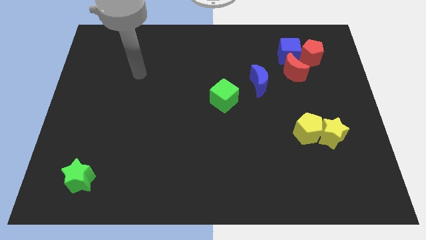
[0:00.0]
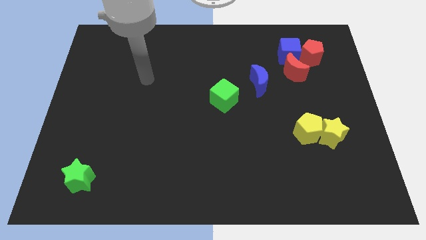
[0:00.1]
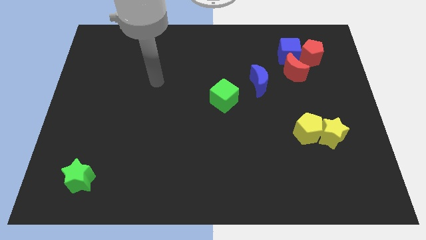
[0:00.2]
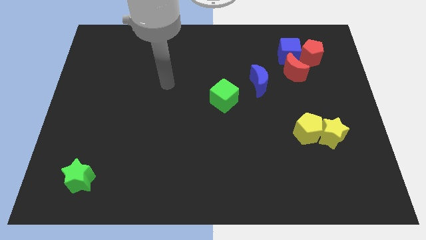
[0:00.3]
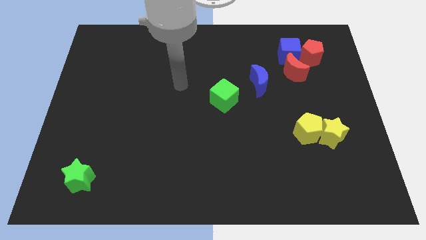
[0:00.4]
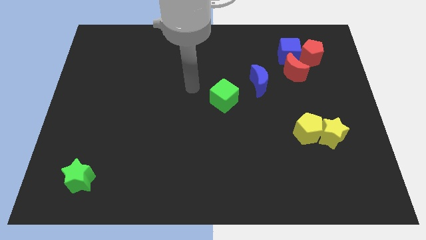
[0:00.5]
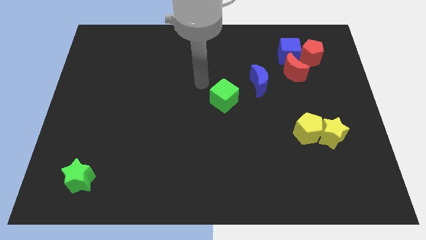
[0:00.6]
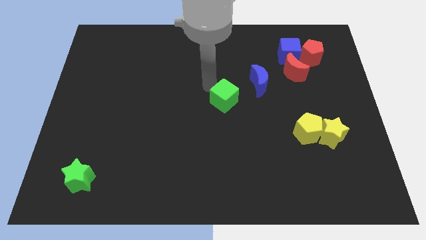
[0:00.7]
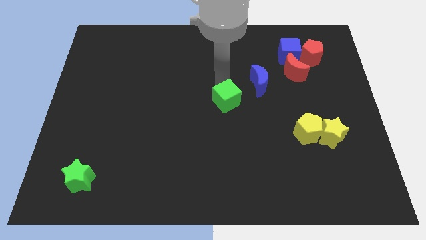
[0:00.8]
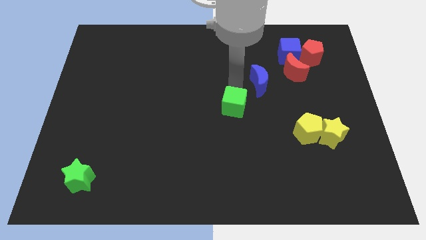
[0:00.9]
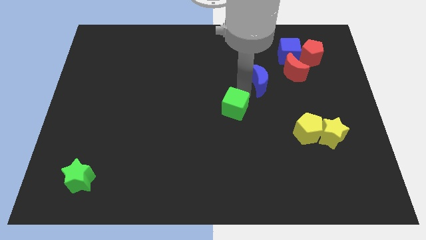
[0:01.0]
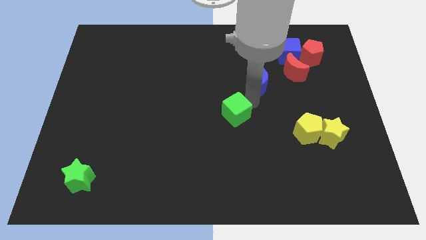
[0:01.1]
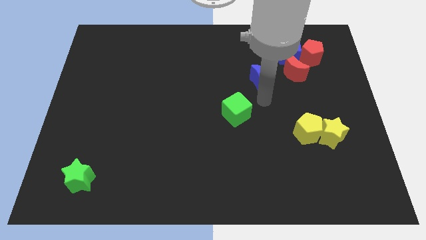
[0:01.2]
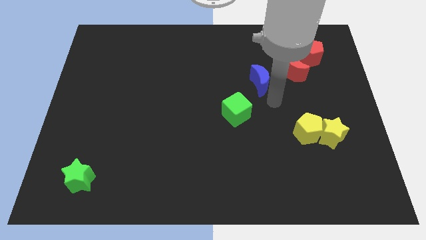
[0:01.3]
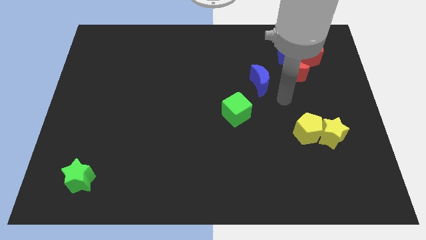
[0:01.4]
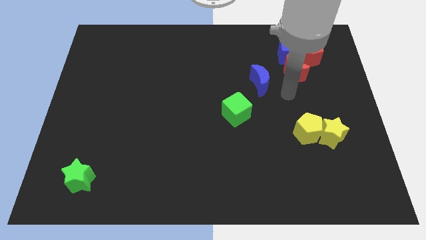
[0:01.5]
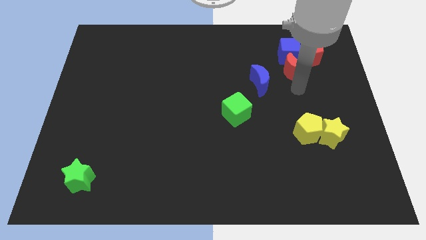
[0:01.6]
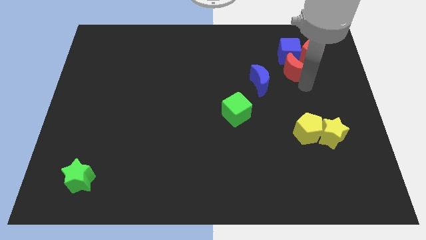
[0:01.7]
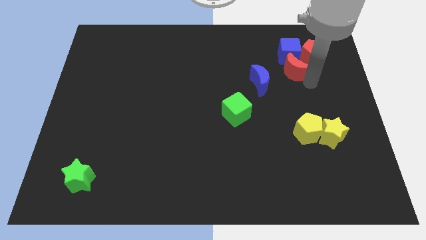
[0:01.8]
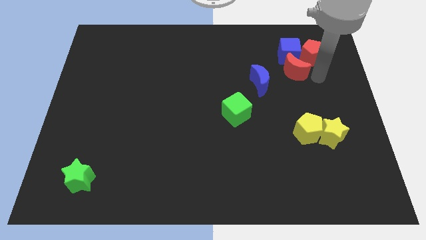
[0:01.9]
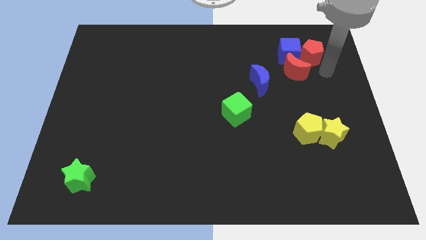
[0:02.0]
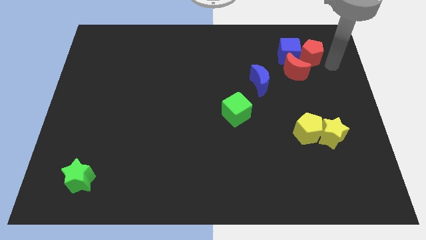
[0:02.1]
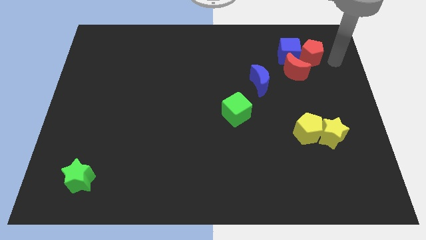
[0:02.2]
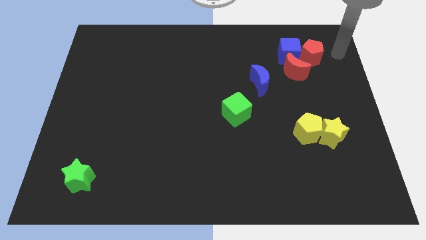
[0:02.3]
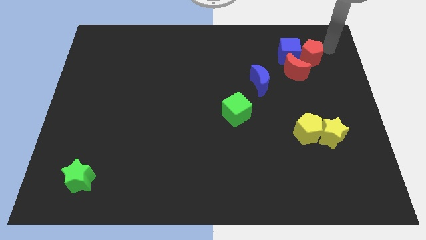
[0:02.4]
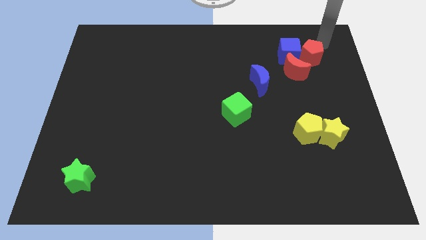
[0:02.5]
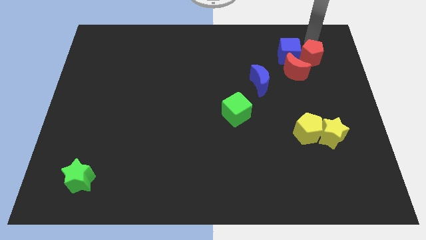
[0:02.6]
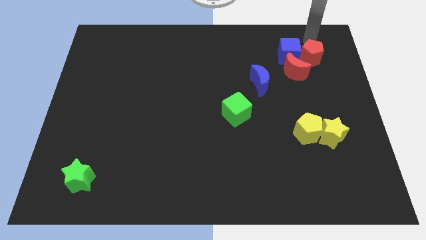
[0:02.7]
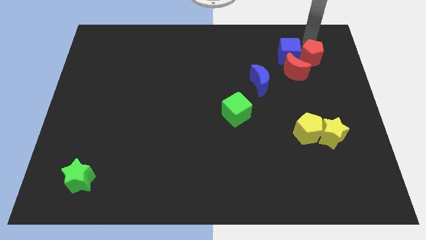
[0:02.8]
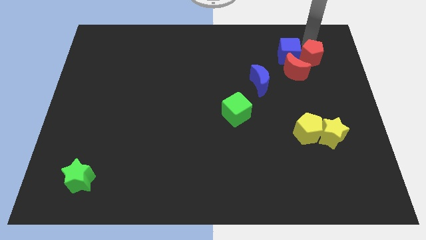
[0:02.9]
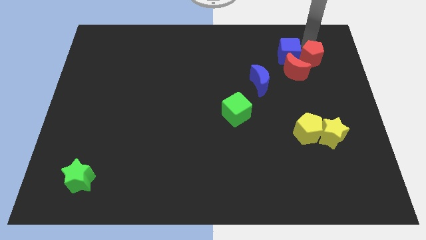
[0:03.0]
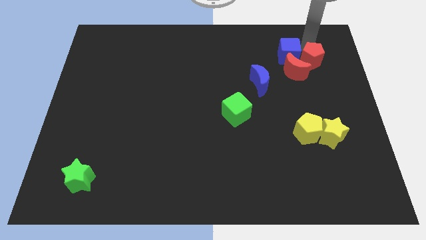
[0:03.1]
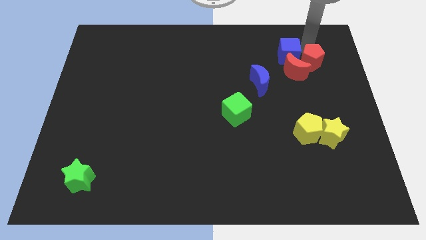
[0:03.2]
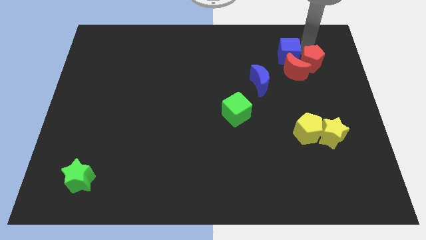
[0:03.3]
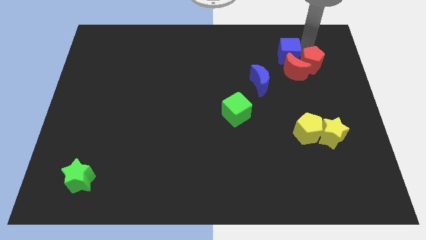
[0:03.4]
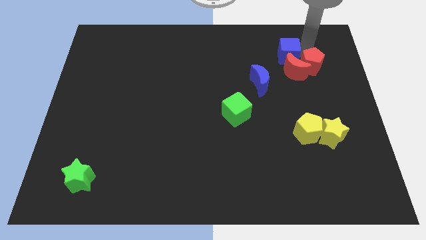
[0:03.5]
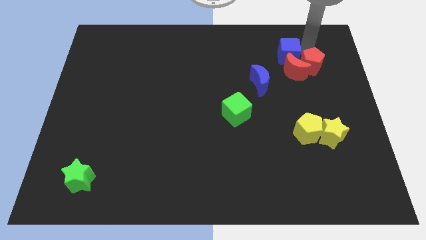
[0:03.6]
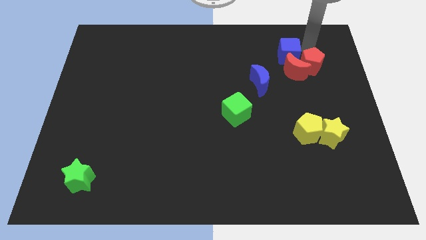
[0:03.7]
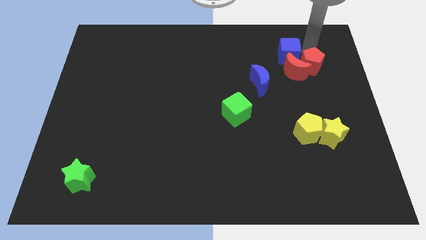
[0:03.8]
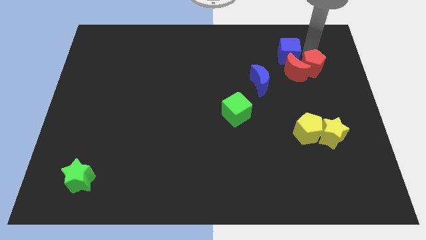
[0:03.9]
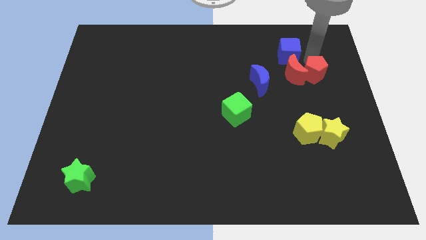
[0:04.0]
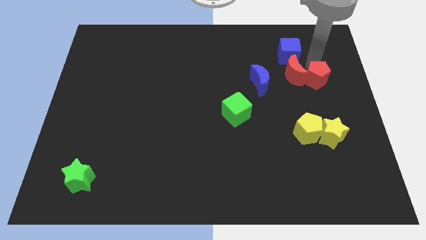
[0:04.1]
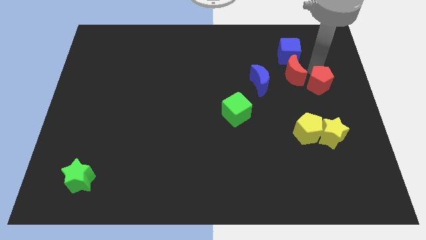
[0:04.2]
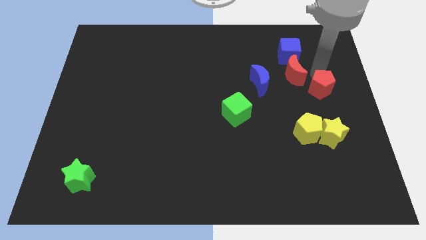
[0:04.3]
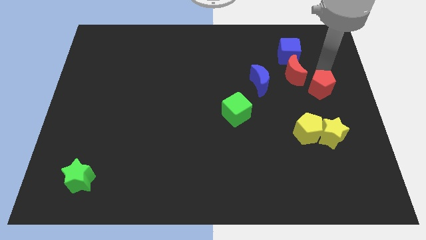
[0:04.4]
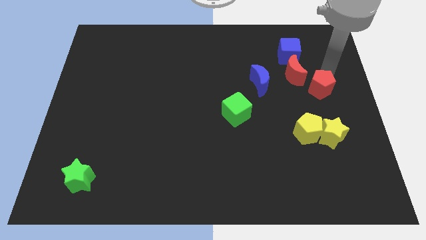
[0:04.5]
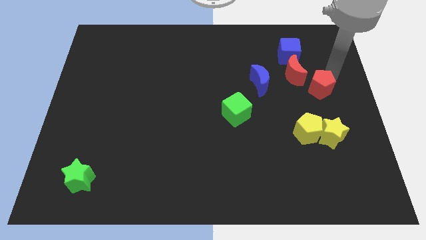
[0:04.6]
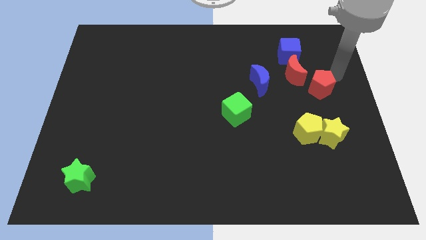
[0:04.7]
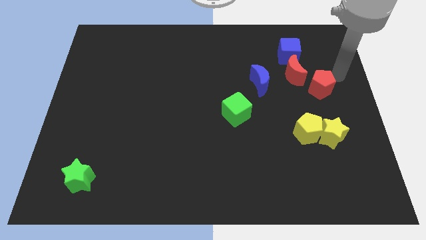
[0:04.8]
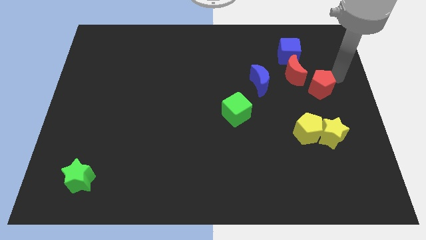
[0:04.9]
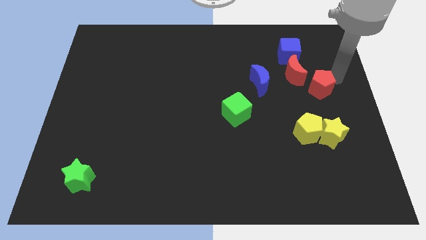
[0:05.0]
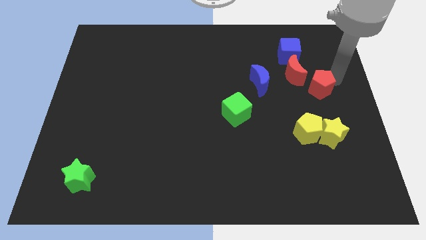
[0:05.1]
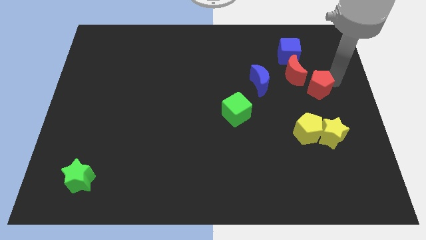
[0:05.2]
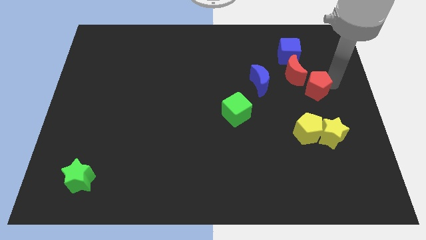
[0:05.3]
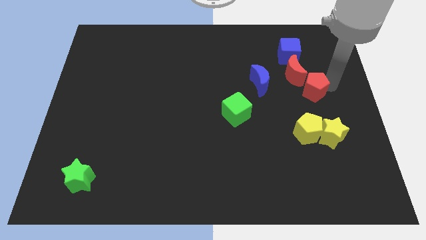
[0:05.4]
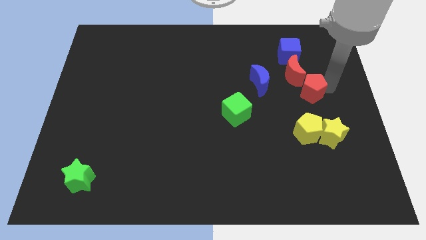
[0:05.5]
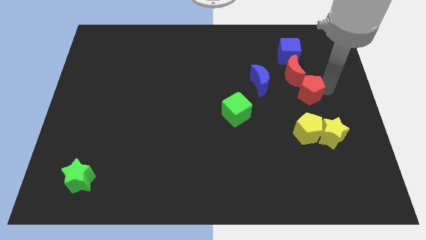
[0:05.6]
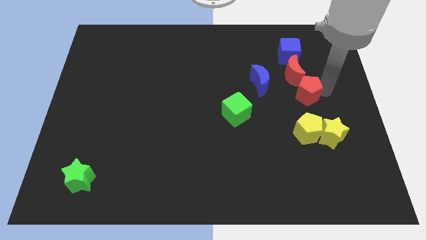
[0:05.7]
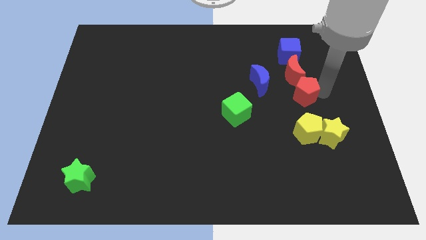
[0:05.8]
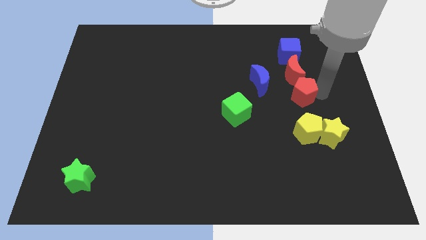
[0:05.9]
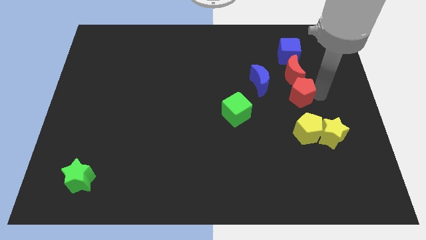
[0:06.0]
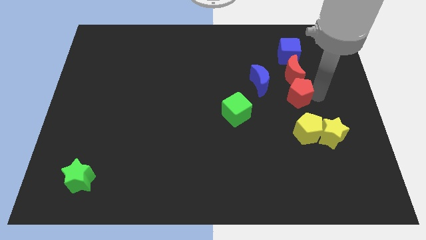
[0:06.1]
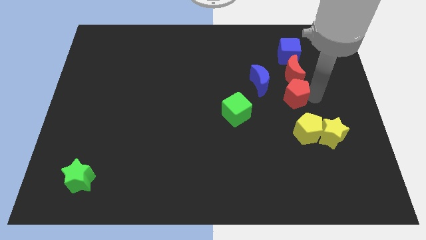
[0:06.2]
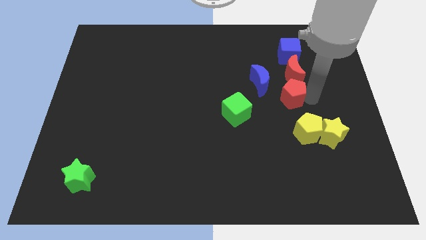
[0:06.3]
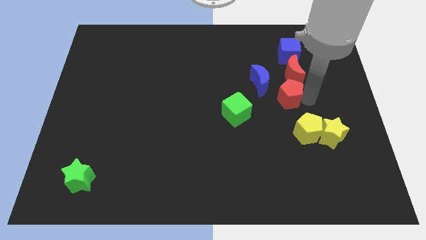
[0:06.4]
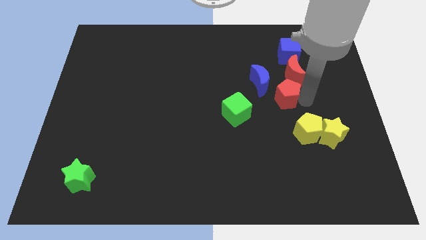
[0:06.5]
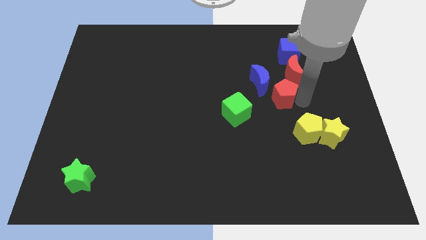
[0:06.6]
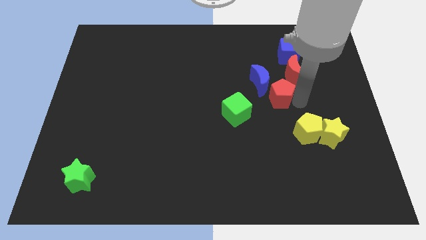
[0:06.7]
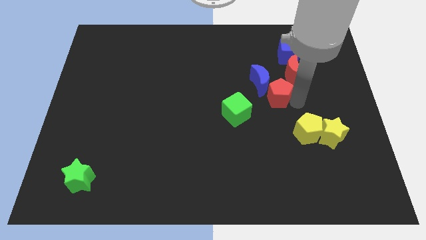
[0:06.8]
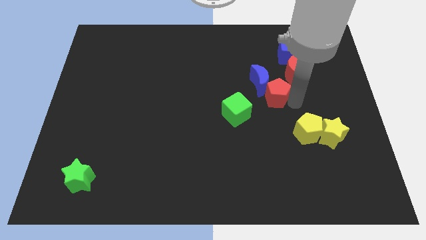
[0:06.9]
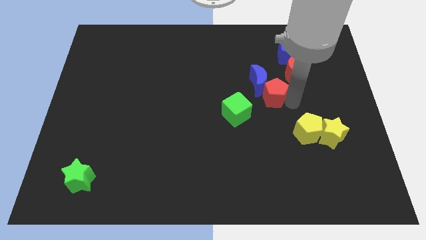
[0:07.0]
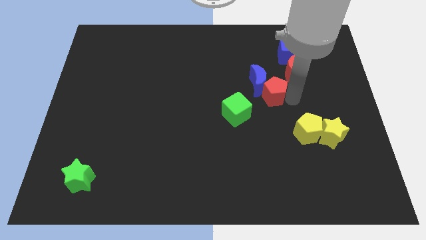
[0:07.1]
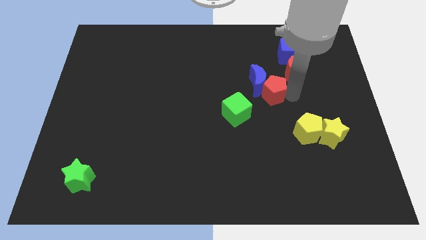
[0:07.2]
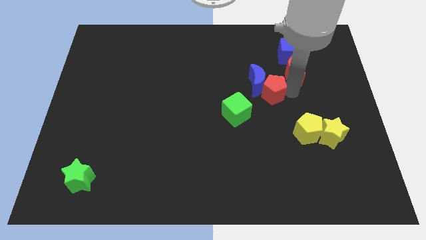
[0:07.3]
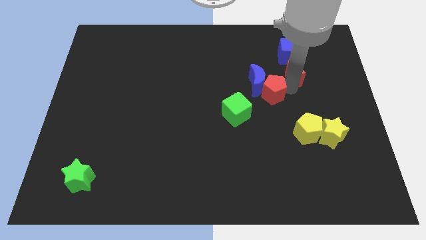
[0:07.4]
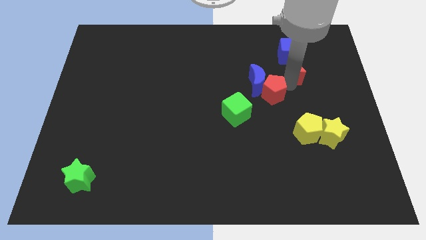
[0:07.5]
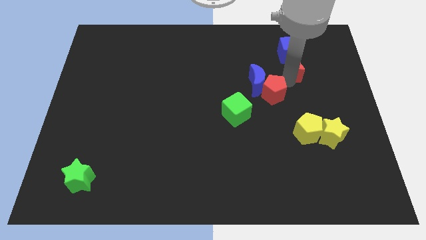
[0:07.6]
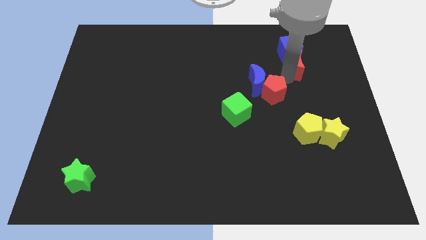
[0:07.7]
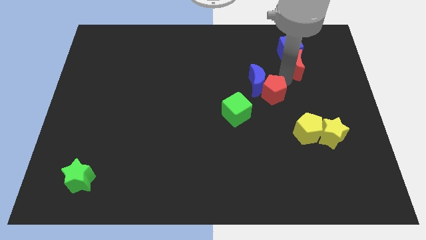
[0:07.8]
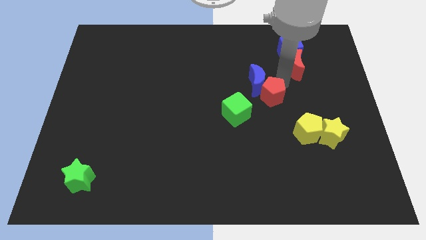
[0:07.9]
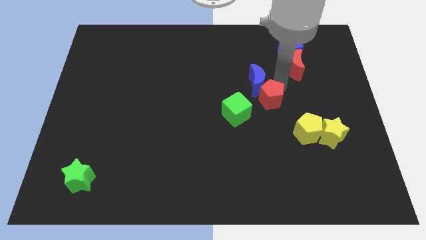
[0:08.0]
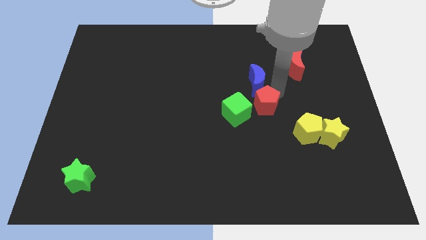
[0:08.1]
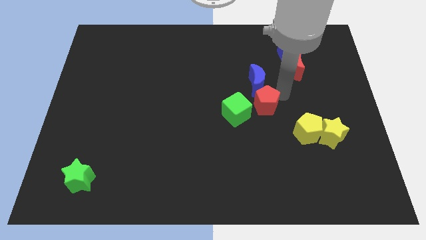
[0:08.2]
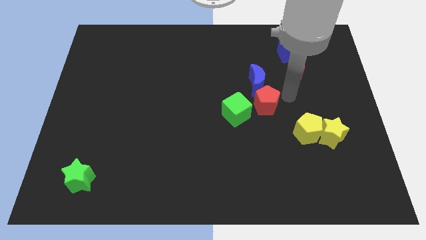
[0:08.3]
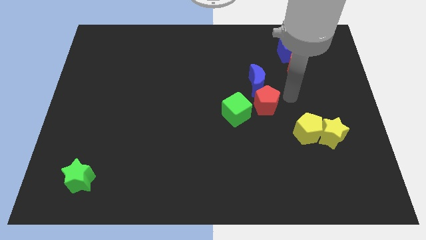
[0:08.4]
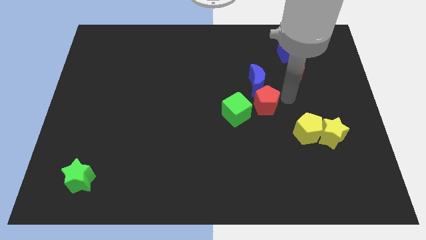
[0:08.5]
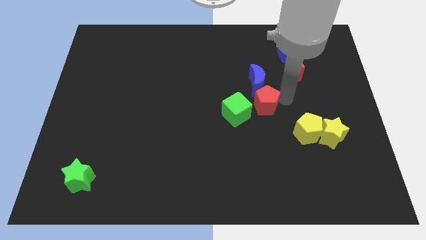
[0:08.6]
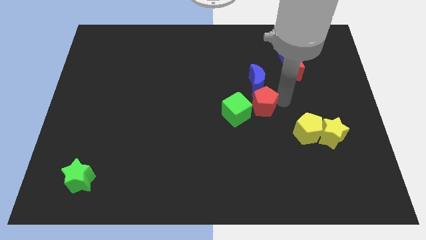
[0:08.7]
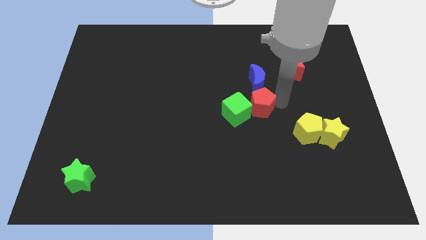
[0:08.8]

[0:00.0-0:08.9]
put the red pentagon towards the green cube
